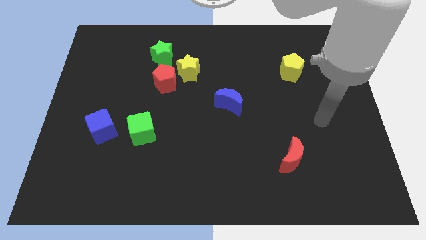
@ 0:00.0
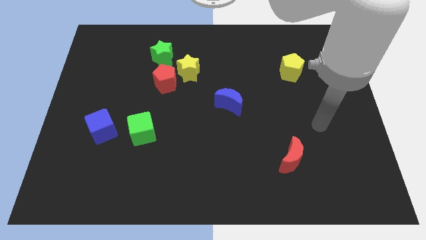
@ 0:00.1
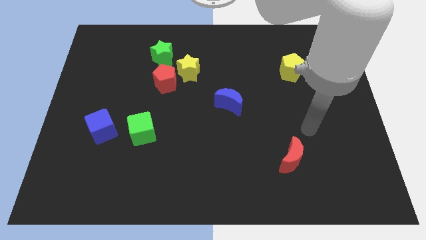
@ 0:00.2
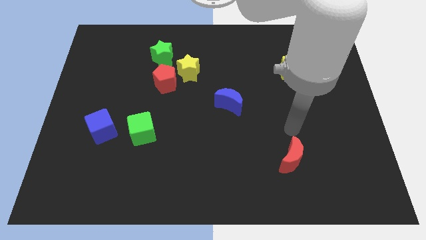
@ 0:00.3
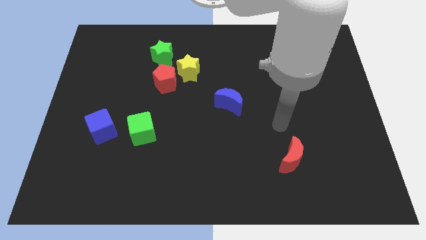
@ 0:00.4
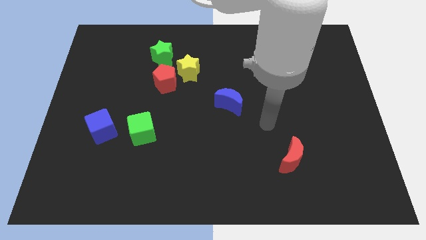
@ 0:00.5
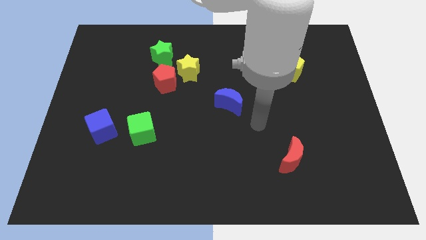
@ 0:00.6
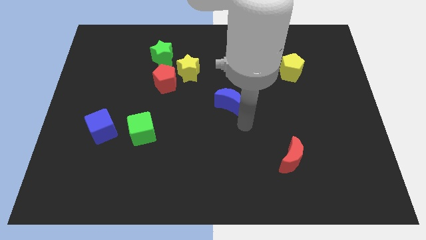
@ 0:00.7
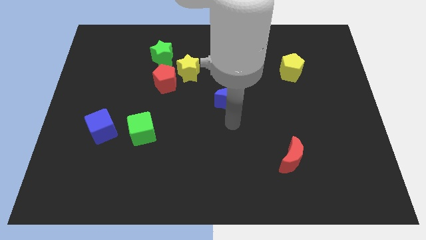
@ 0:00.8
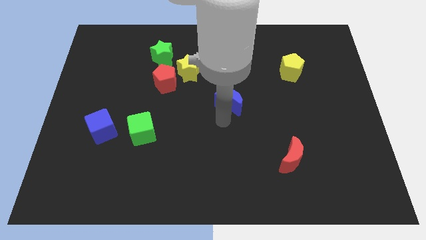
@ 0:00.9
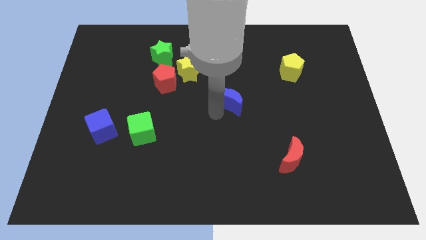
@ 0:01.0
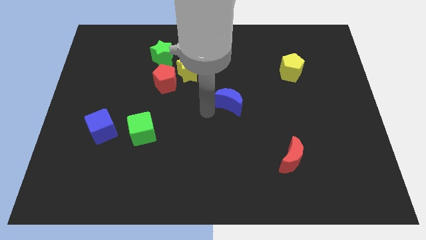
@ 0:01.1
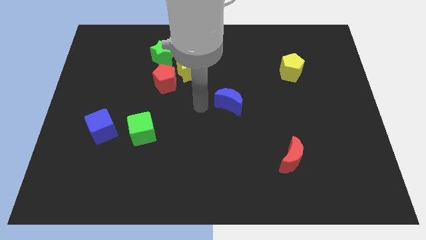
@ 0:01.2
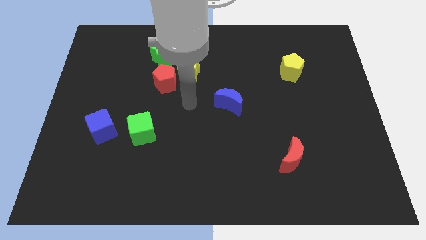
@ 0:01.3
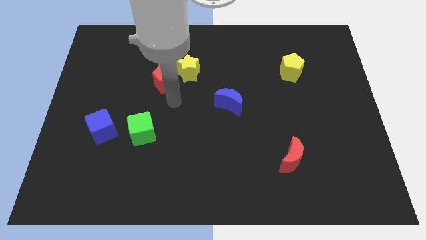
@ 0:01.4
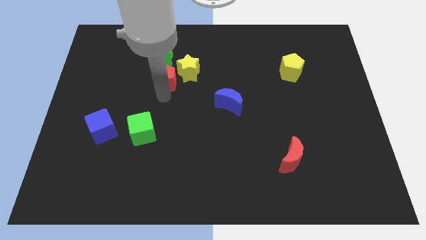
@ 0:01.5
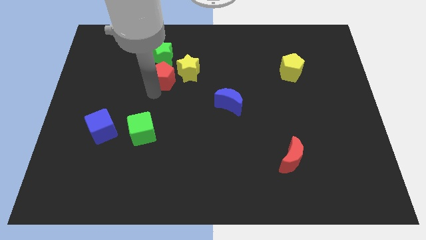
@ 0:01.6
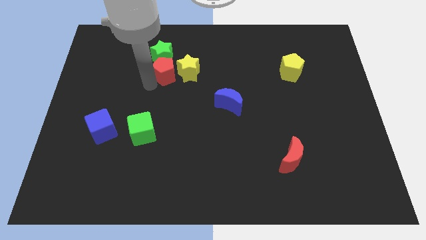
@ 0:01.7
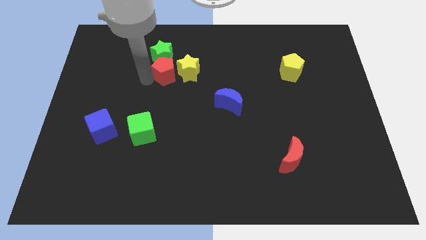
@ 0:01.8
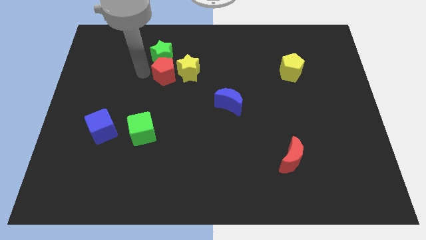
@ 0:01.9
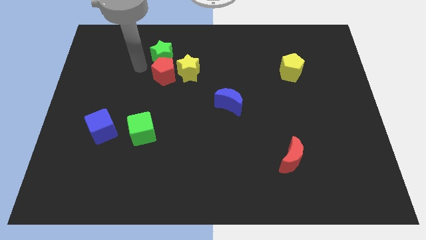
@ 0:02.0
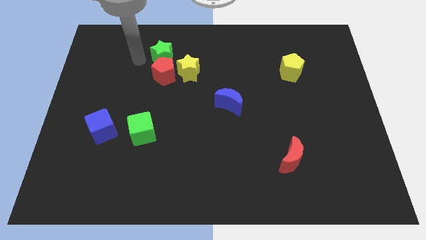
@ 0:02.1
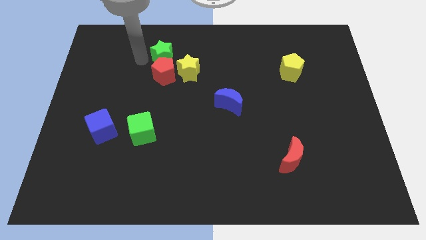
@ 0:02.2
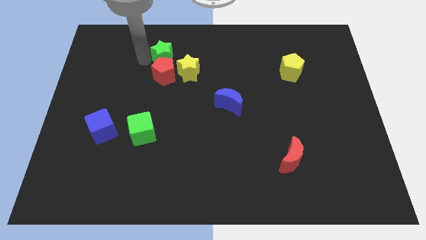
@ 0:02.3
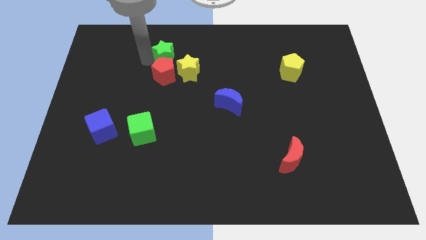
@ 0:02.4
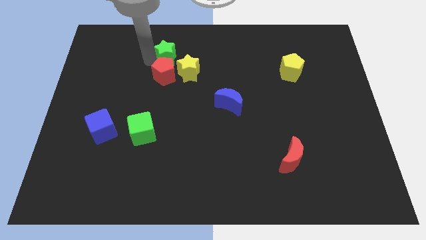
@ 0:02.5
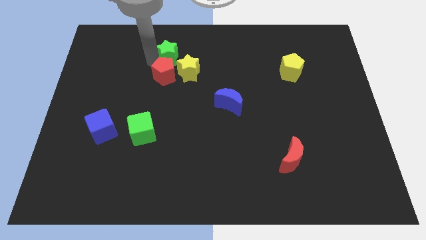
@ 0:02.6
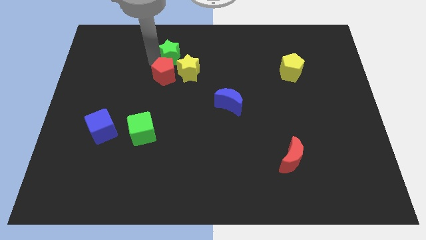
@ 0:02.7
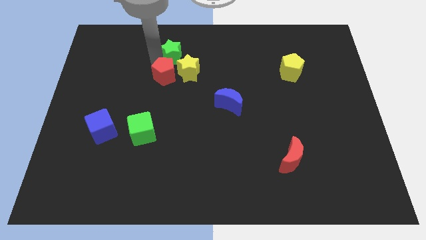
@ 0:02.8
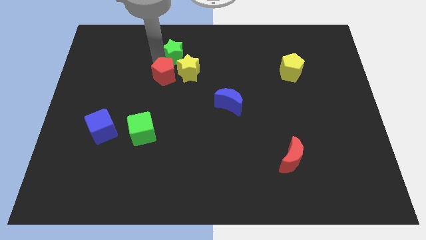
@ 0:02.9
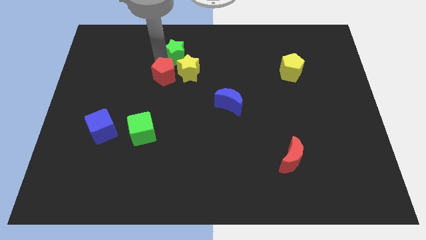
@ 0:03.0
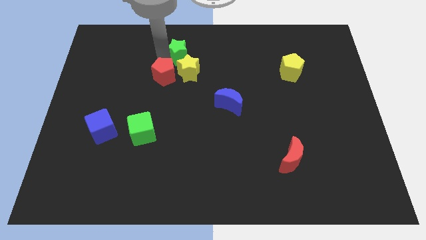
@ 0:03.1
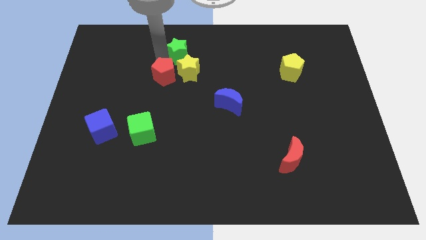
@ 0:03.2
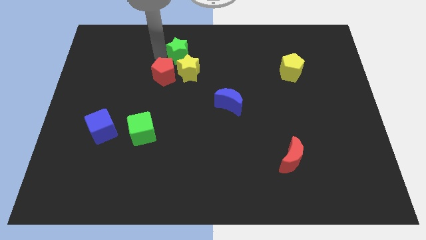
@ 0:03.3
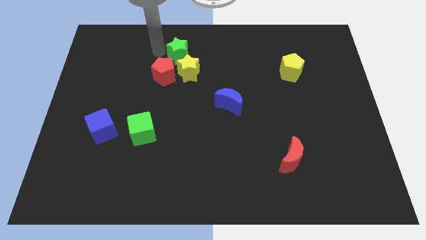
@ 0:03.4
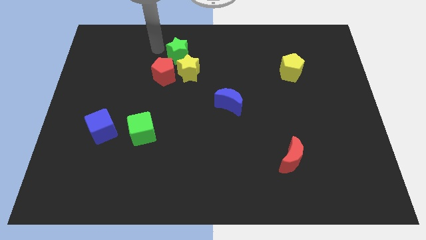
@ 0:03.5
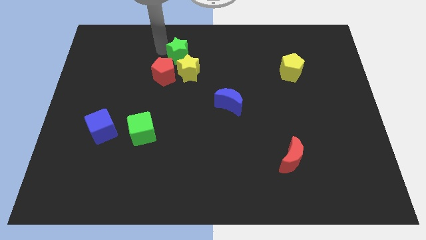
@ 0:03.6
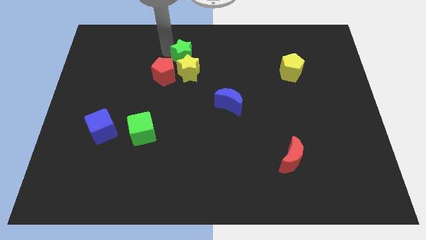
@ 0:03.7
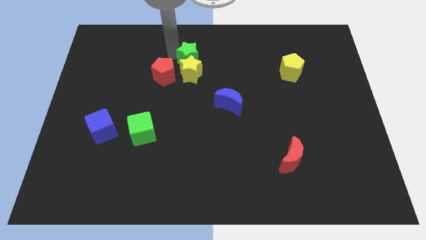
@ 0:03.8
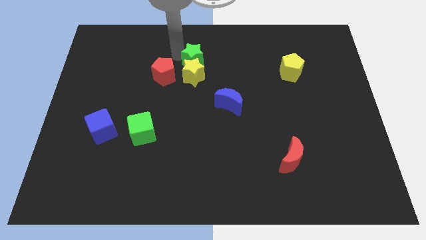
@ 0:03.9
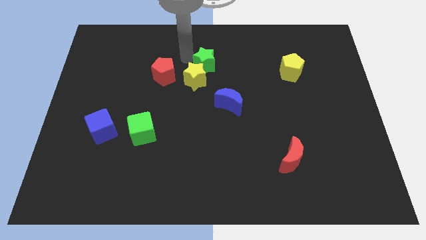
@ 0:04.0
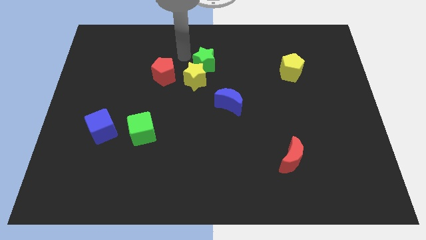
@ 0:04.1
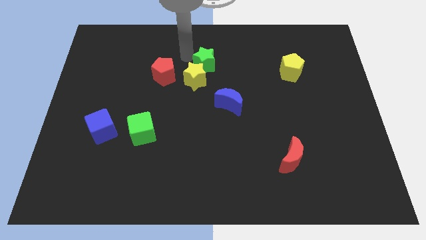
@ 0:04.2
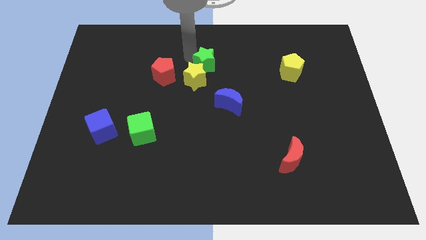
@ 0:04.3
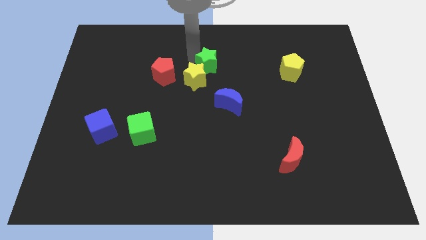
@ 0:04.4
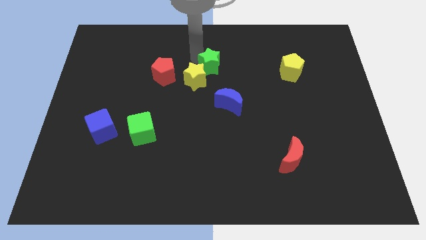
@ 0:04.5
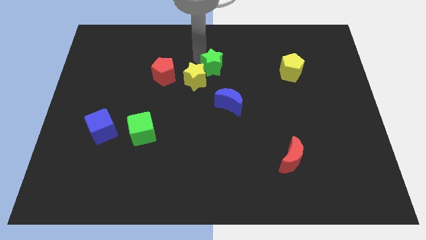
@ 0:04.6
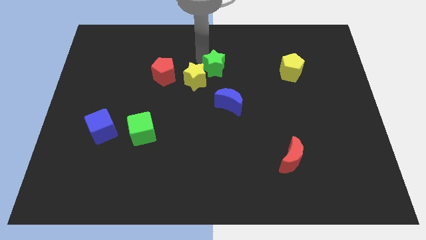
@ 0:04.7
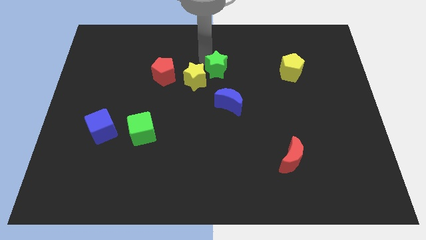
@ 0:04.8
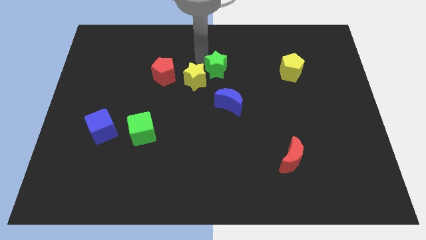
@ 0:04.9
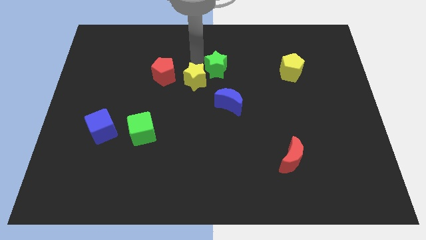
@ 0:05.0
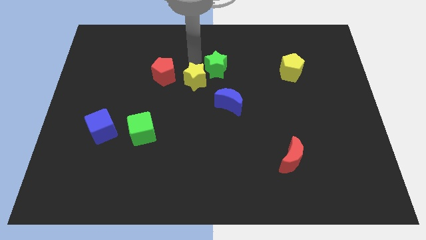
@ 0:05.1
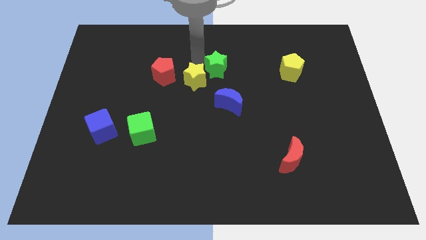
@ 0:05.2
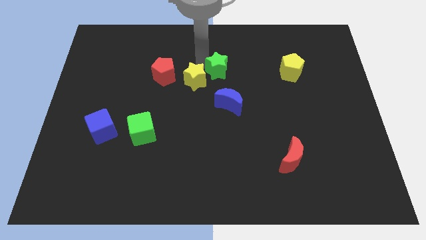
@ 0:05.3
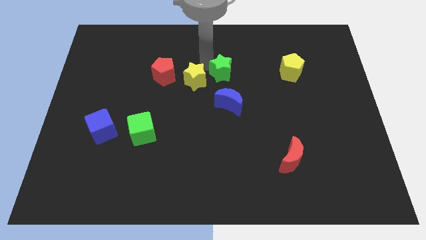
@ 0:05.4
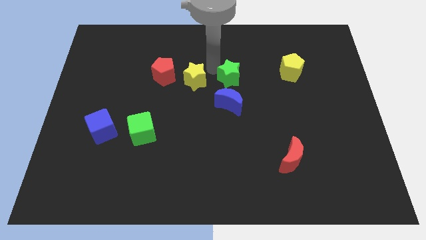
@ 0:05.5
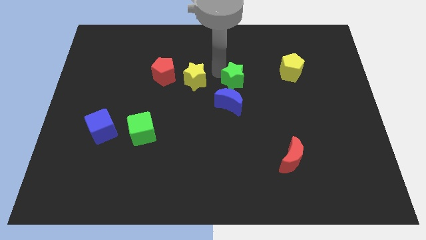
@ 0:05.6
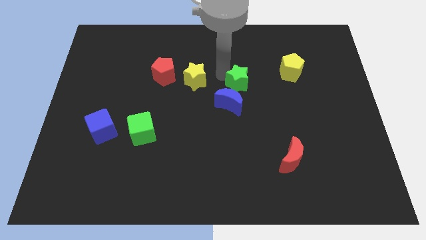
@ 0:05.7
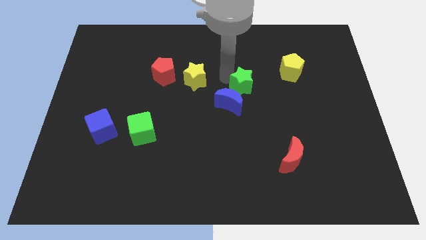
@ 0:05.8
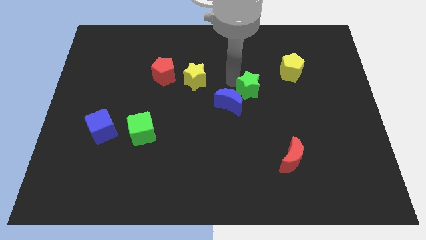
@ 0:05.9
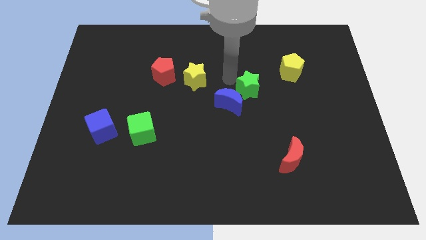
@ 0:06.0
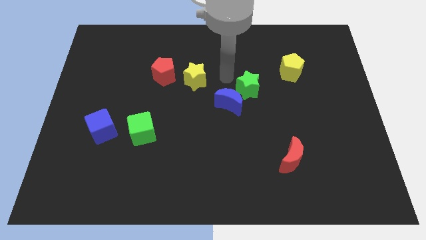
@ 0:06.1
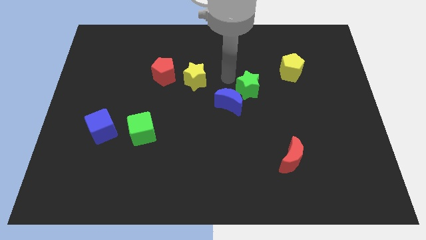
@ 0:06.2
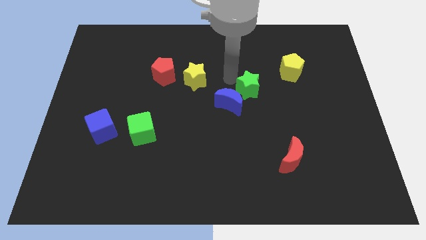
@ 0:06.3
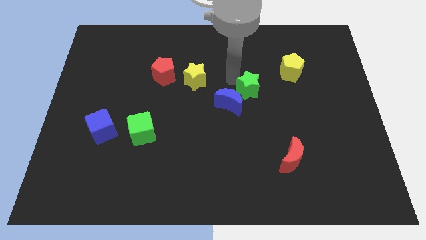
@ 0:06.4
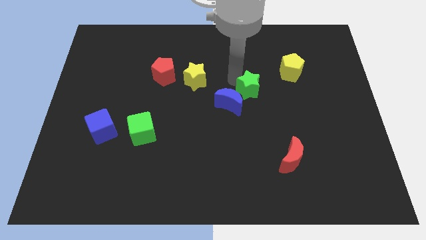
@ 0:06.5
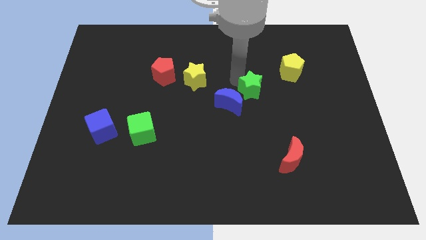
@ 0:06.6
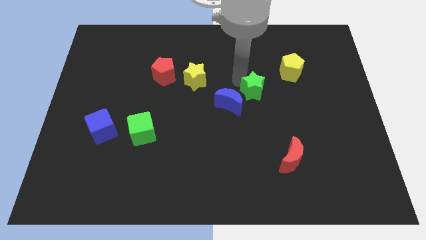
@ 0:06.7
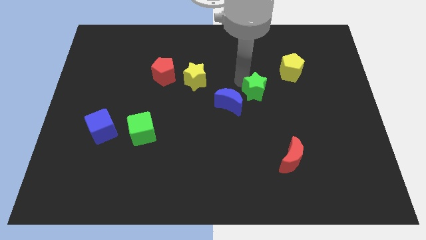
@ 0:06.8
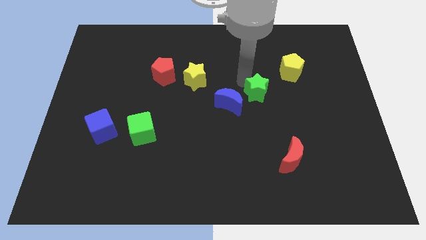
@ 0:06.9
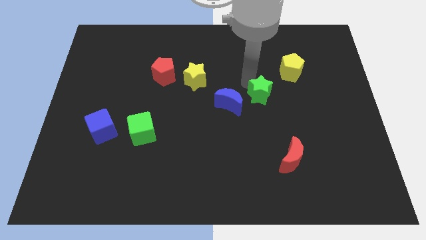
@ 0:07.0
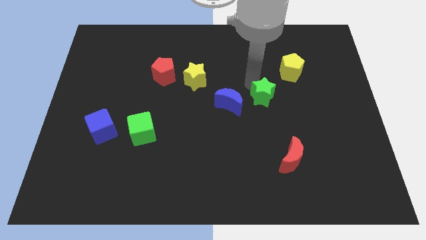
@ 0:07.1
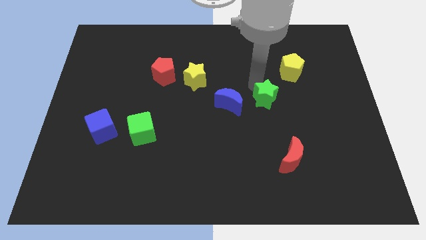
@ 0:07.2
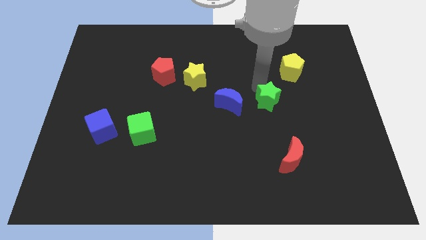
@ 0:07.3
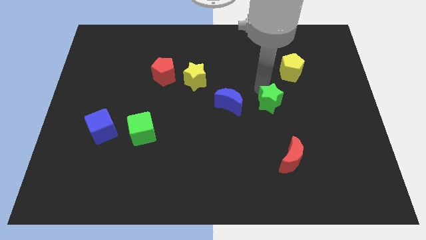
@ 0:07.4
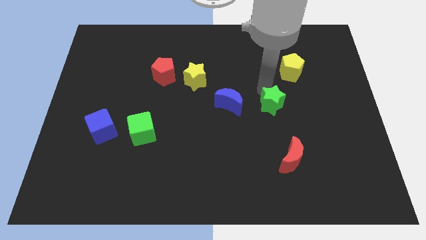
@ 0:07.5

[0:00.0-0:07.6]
push the green star to the top side of the red moon

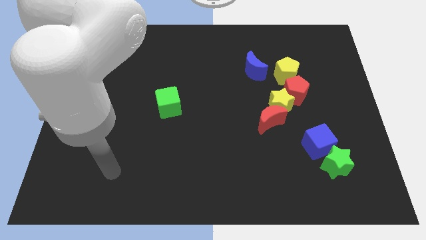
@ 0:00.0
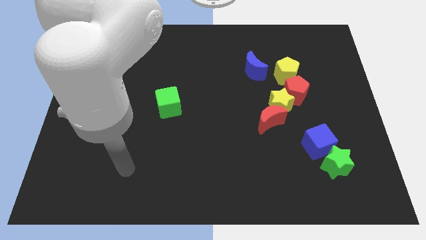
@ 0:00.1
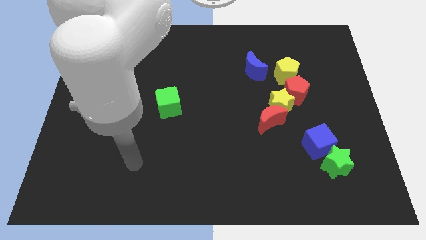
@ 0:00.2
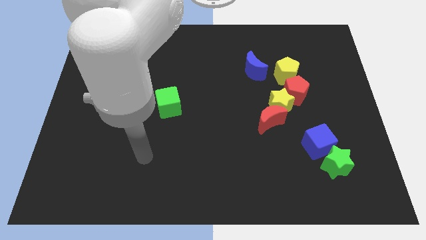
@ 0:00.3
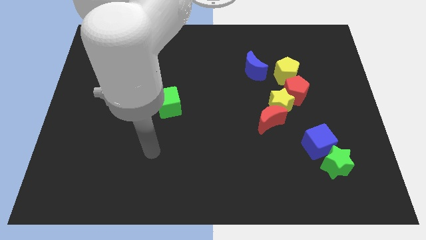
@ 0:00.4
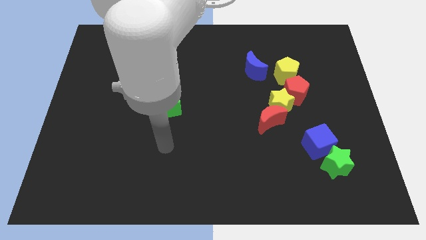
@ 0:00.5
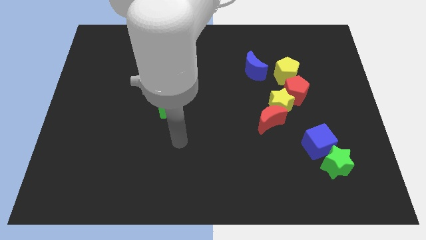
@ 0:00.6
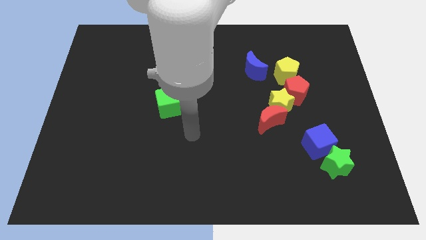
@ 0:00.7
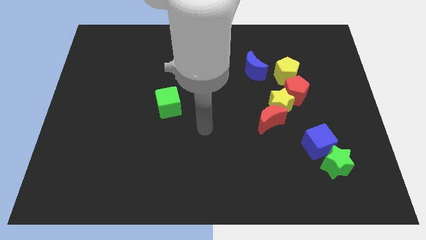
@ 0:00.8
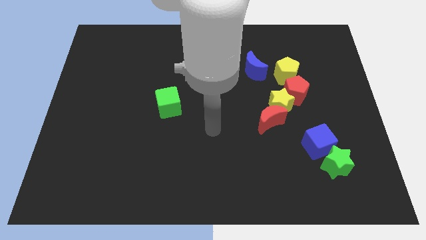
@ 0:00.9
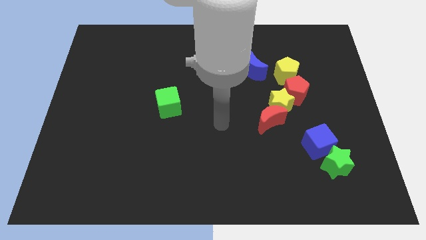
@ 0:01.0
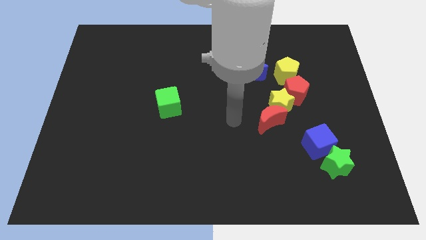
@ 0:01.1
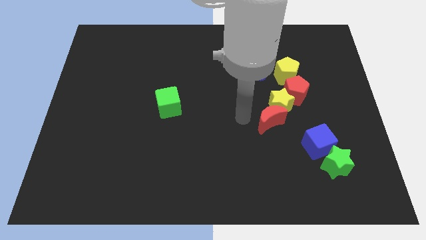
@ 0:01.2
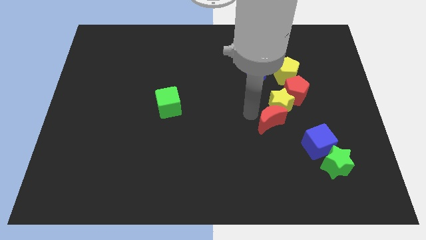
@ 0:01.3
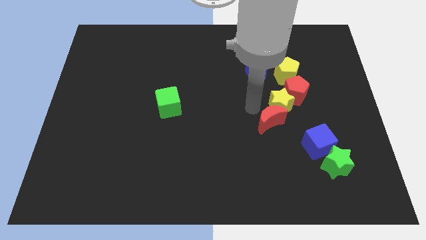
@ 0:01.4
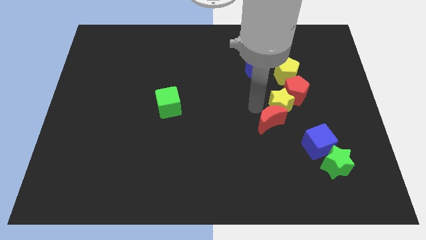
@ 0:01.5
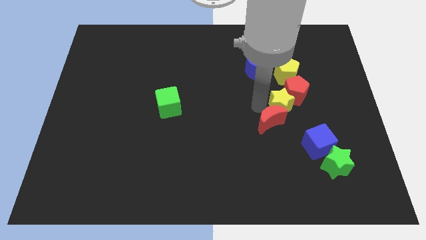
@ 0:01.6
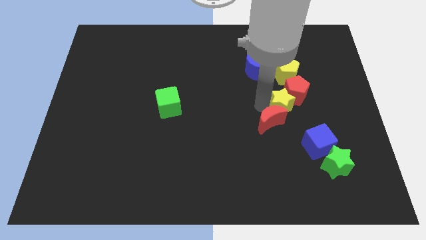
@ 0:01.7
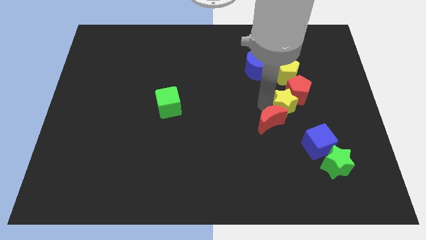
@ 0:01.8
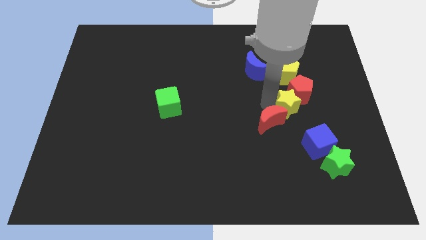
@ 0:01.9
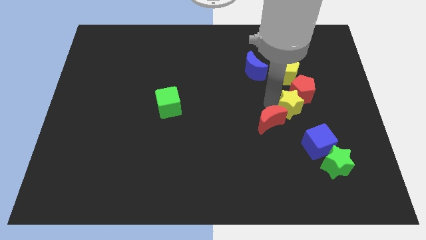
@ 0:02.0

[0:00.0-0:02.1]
put the yellow star above the blue cube
